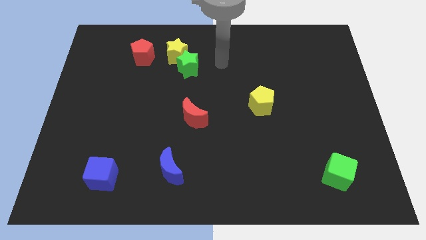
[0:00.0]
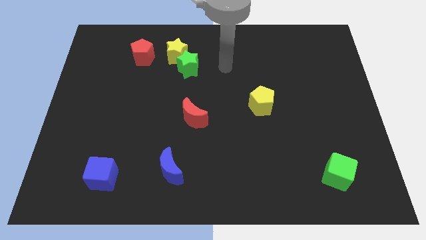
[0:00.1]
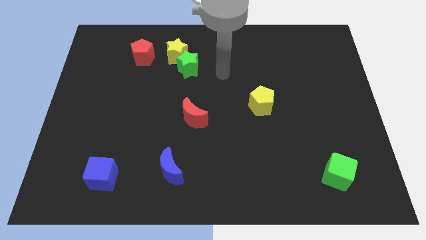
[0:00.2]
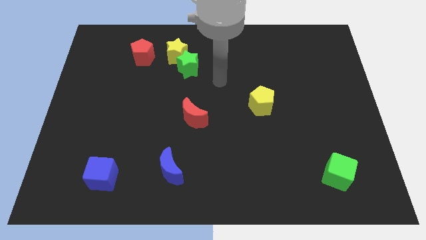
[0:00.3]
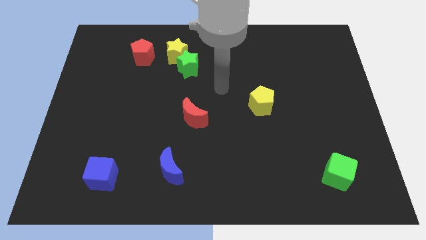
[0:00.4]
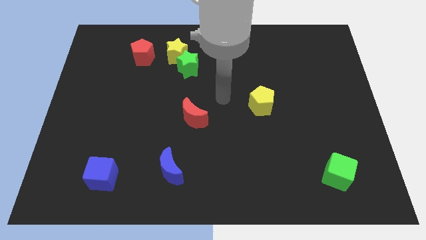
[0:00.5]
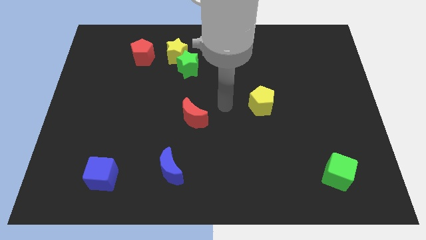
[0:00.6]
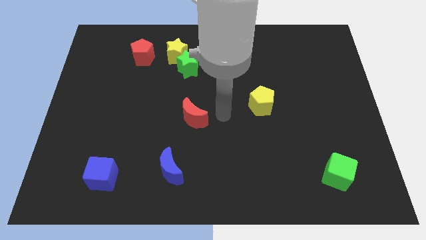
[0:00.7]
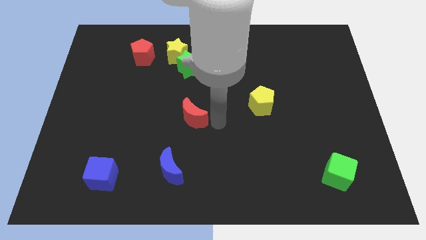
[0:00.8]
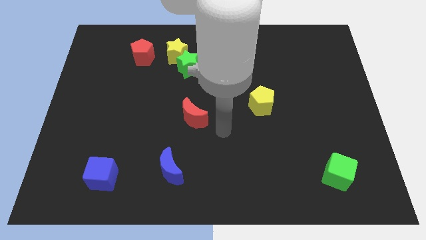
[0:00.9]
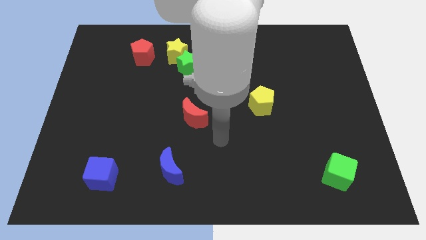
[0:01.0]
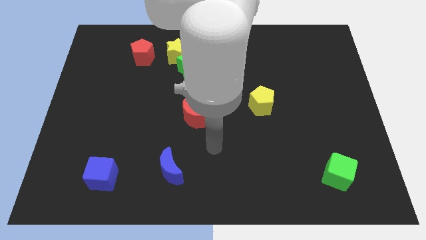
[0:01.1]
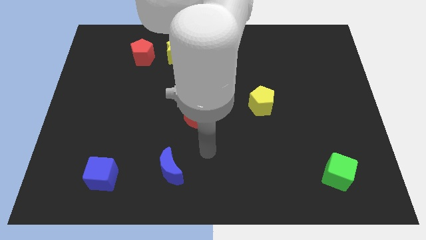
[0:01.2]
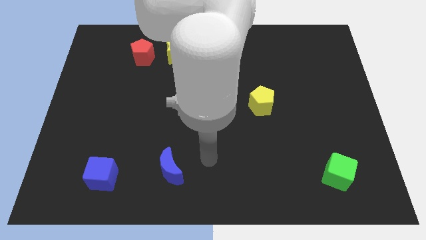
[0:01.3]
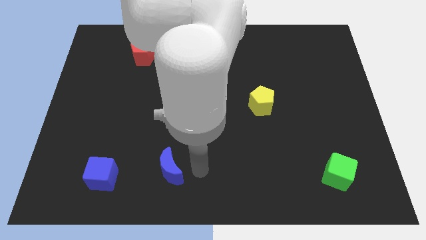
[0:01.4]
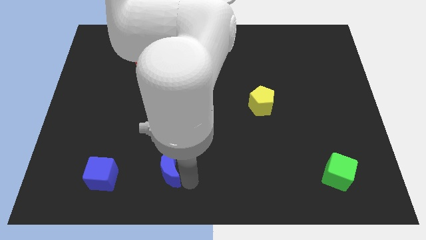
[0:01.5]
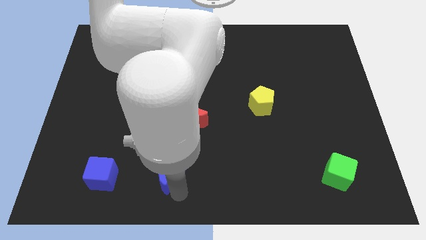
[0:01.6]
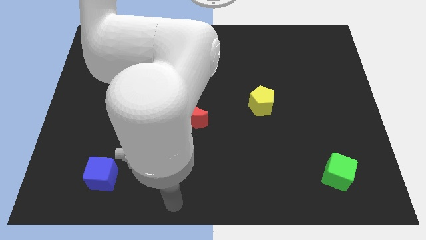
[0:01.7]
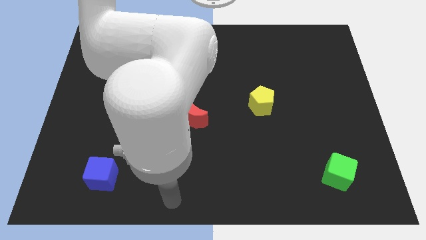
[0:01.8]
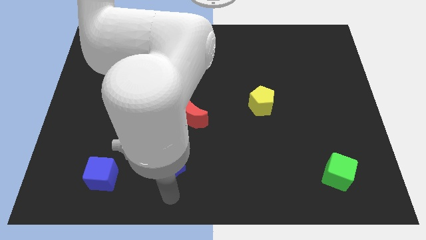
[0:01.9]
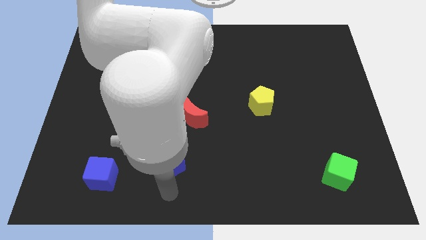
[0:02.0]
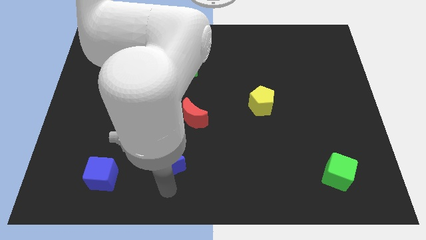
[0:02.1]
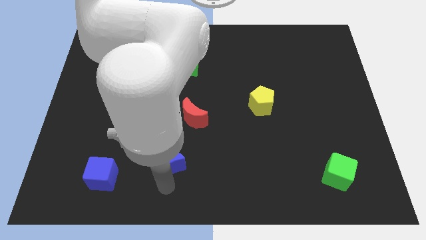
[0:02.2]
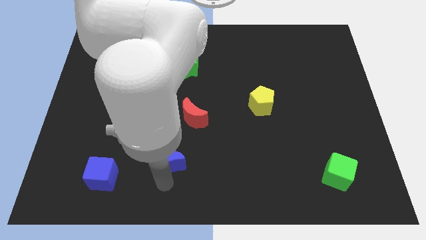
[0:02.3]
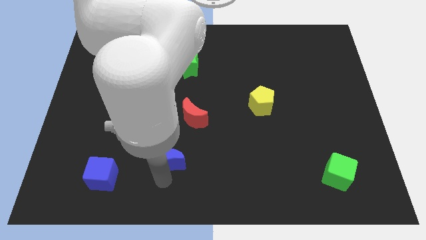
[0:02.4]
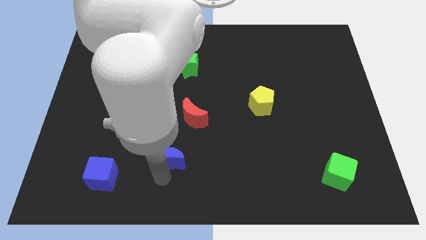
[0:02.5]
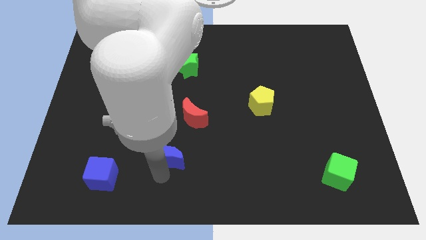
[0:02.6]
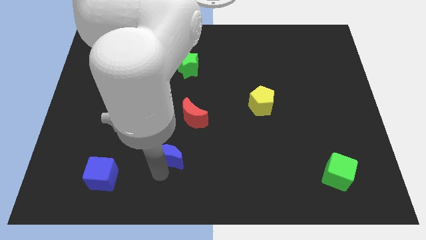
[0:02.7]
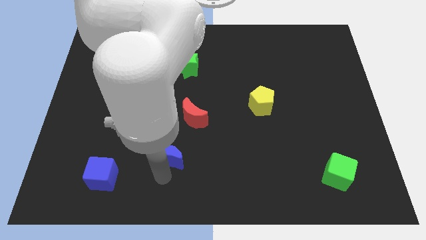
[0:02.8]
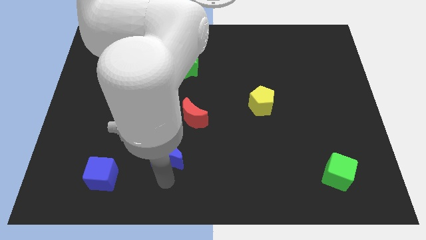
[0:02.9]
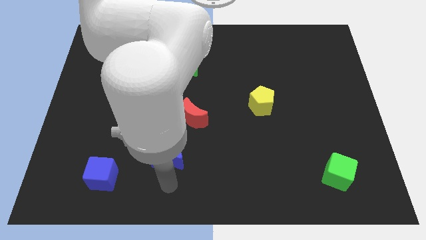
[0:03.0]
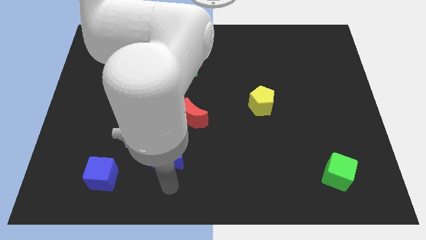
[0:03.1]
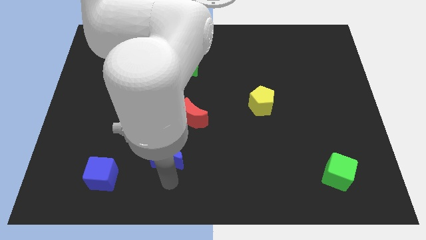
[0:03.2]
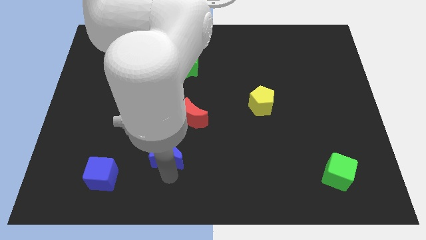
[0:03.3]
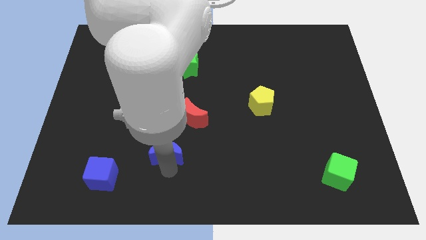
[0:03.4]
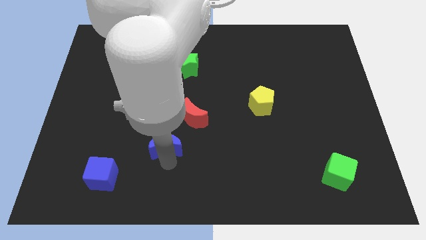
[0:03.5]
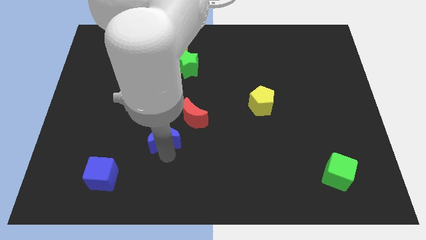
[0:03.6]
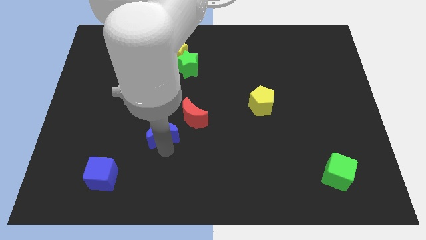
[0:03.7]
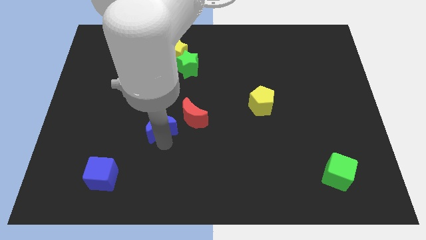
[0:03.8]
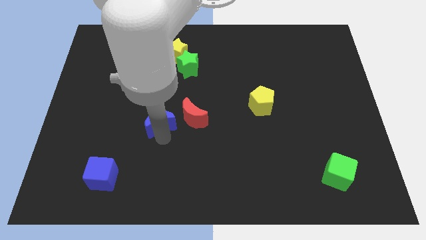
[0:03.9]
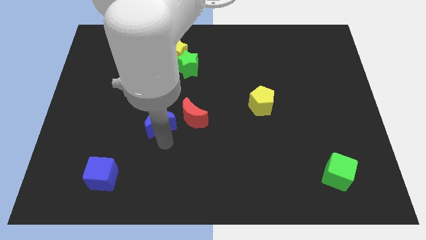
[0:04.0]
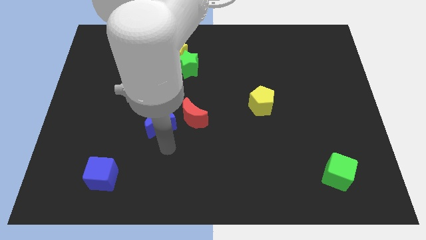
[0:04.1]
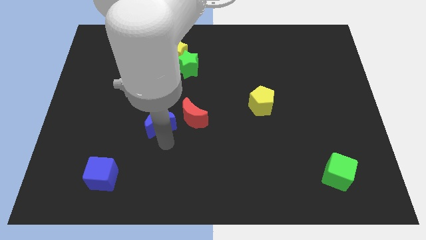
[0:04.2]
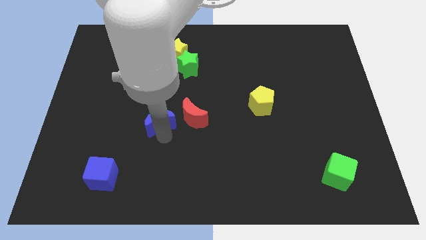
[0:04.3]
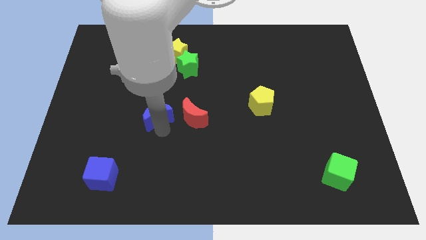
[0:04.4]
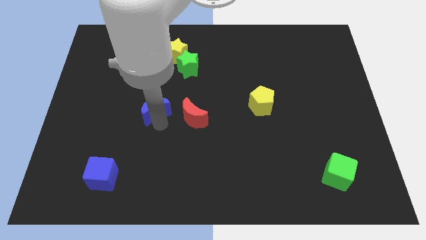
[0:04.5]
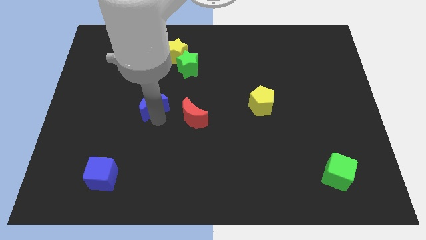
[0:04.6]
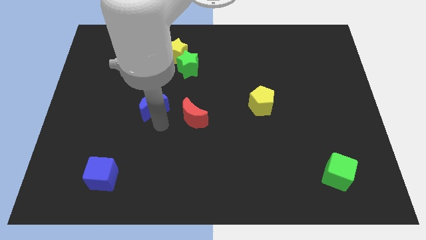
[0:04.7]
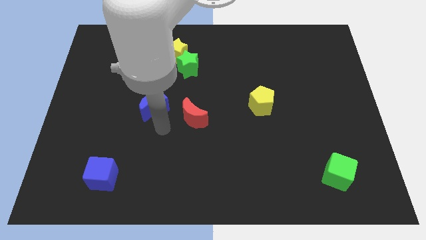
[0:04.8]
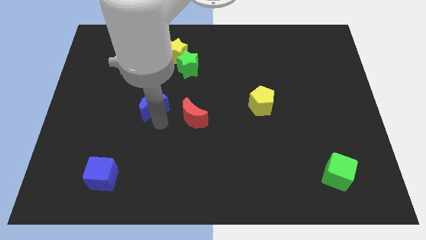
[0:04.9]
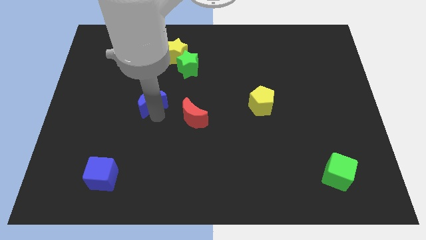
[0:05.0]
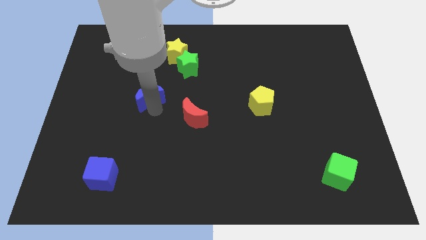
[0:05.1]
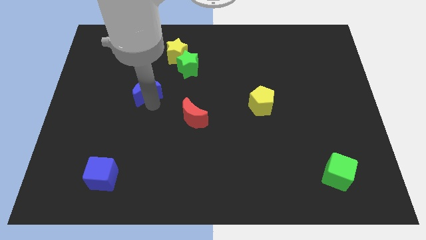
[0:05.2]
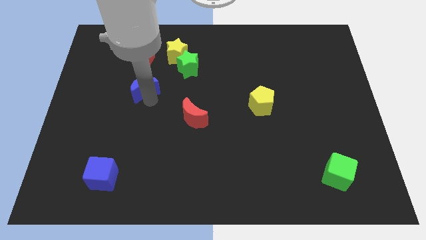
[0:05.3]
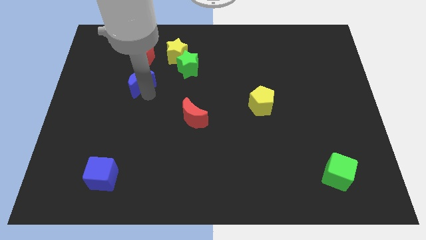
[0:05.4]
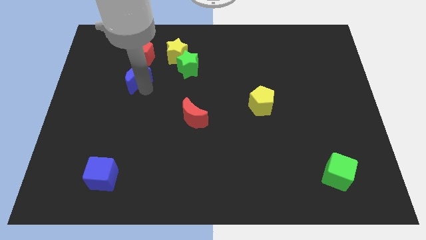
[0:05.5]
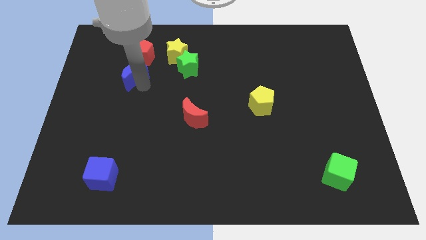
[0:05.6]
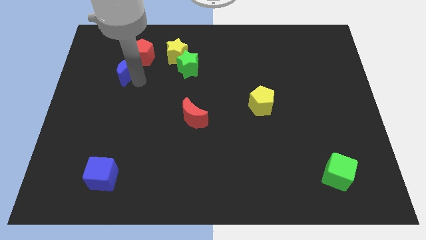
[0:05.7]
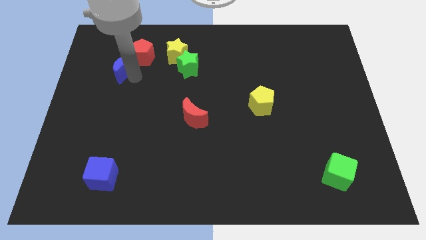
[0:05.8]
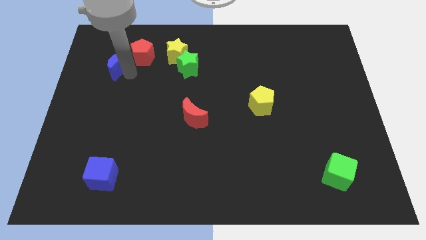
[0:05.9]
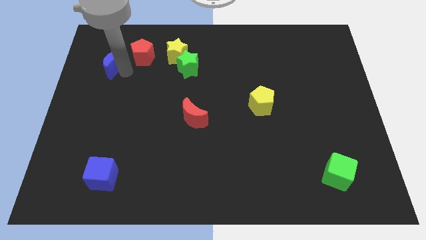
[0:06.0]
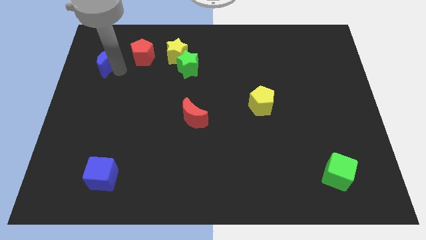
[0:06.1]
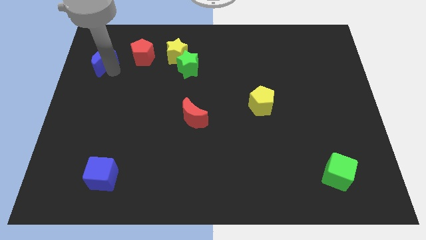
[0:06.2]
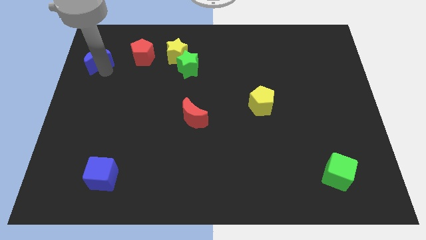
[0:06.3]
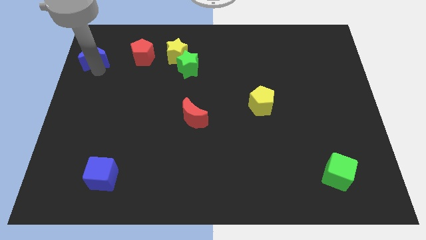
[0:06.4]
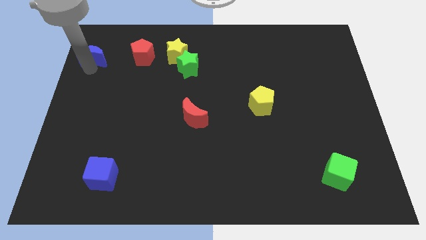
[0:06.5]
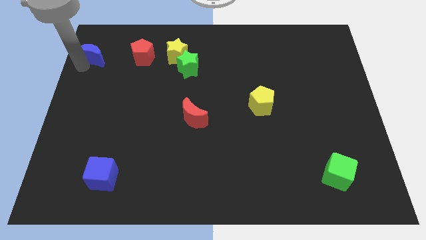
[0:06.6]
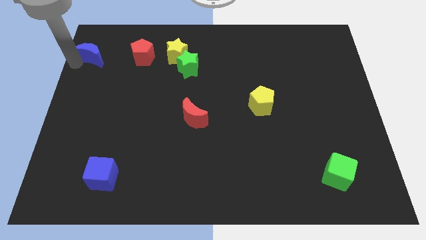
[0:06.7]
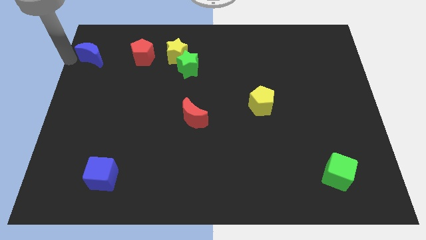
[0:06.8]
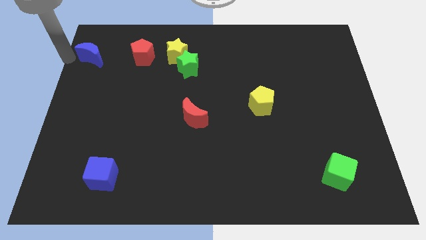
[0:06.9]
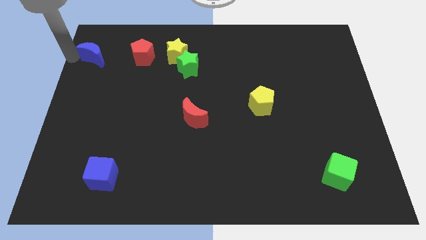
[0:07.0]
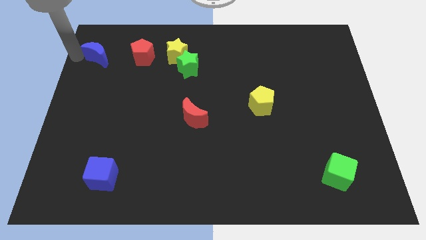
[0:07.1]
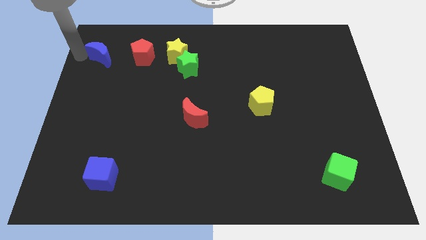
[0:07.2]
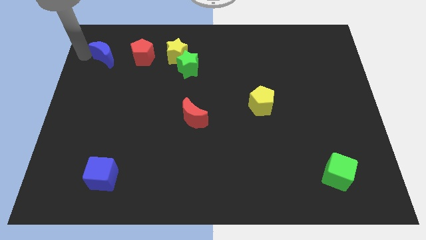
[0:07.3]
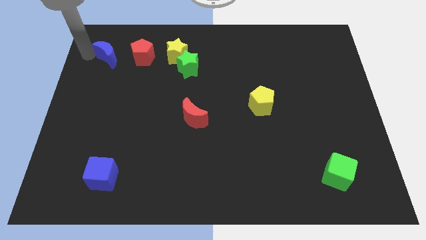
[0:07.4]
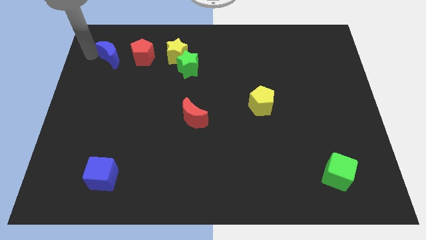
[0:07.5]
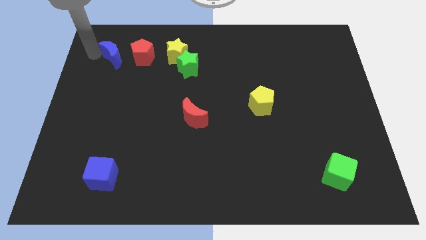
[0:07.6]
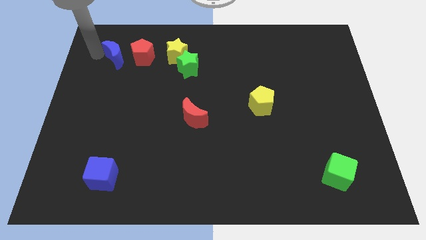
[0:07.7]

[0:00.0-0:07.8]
put the blue moon to the left side of the yellow star
